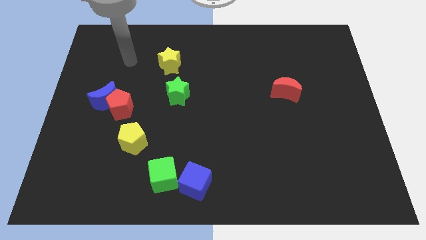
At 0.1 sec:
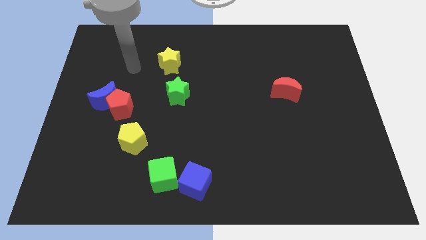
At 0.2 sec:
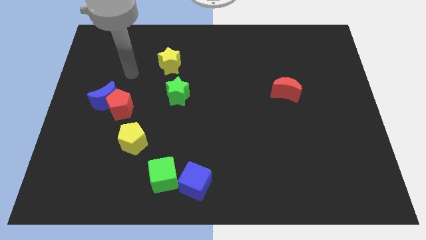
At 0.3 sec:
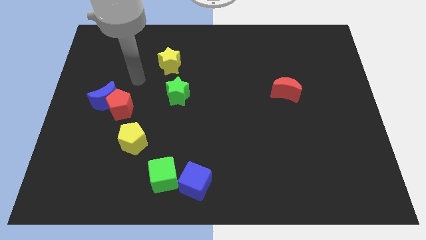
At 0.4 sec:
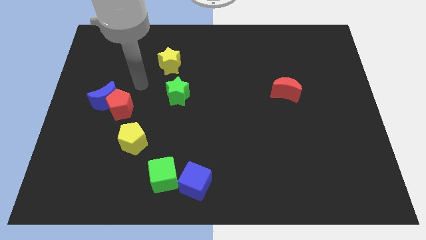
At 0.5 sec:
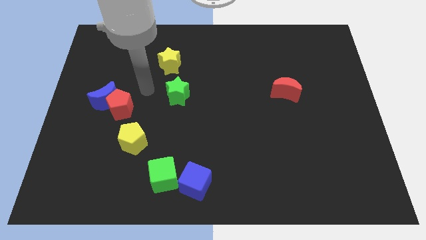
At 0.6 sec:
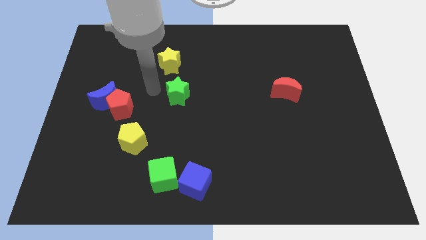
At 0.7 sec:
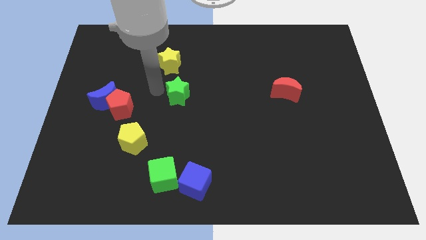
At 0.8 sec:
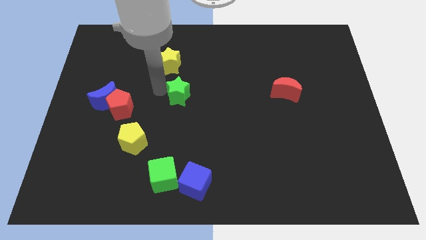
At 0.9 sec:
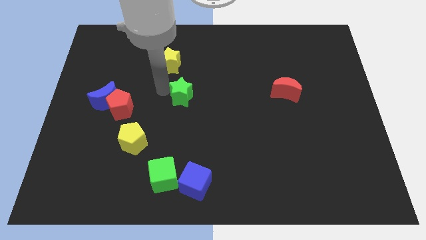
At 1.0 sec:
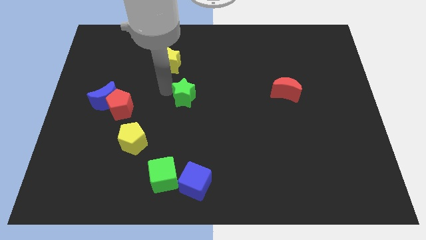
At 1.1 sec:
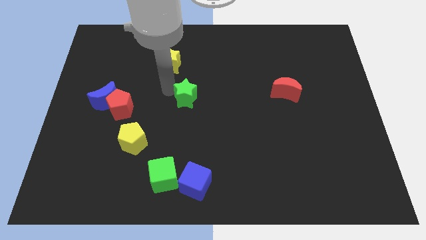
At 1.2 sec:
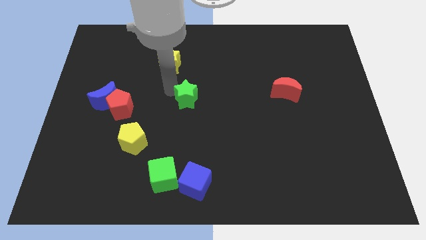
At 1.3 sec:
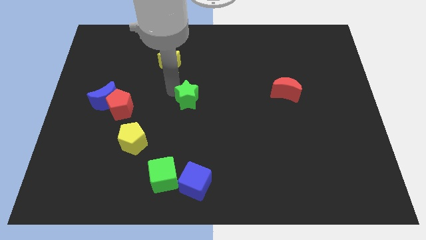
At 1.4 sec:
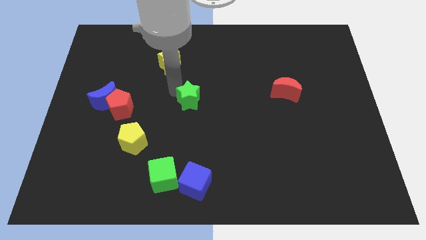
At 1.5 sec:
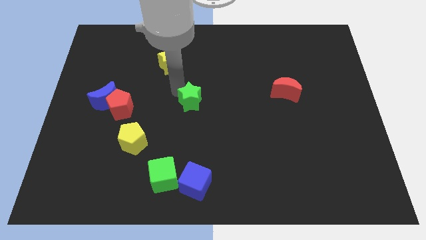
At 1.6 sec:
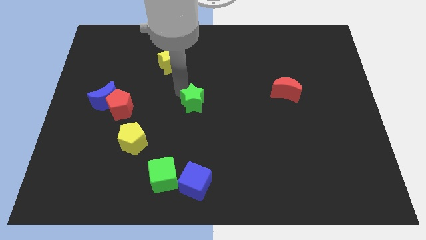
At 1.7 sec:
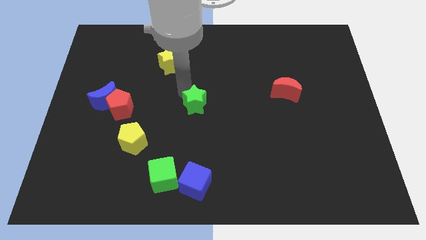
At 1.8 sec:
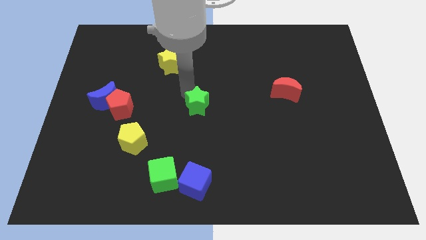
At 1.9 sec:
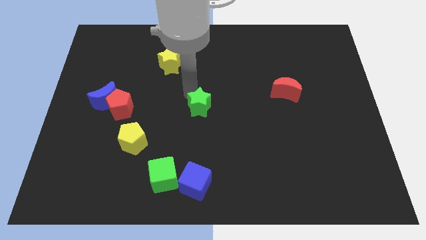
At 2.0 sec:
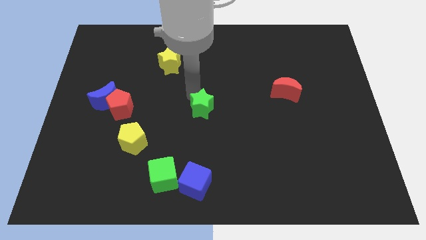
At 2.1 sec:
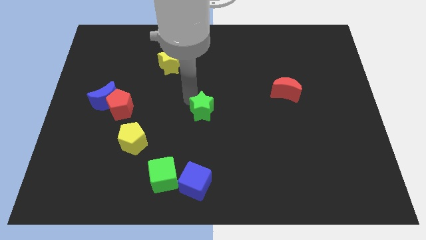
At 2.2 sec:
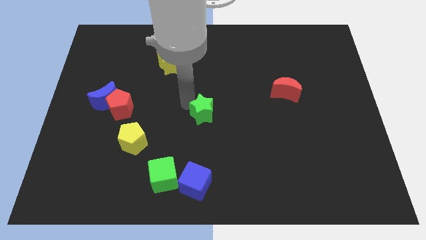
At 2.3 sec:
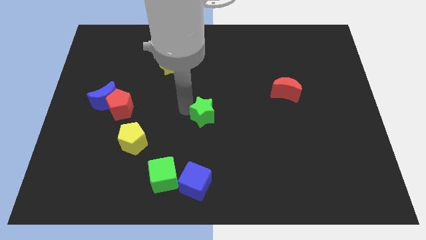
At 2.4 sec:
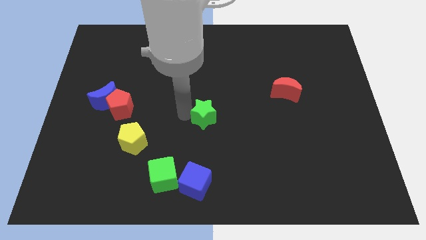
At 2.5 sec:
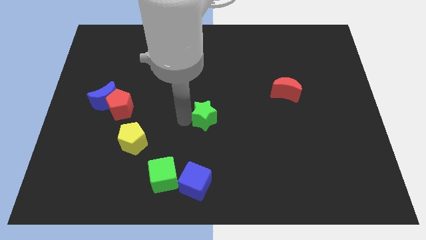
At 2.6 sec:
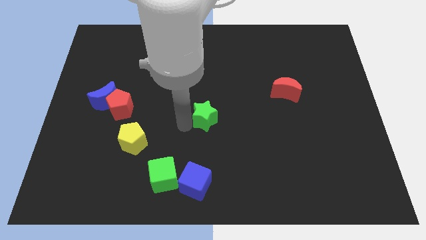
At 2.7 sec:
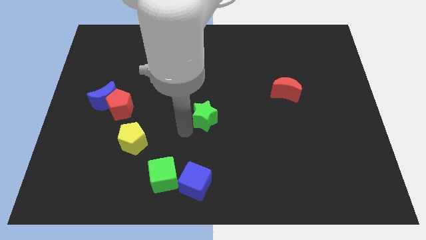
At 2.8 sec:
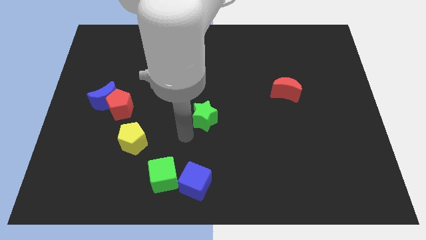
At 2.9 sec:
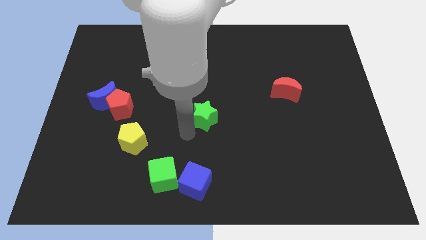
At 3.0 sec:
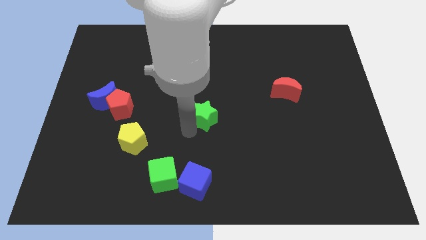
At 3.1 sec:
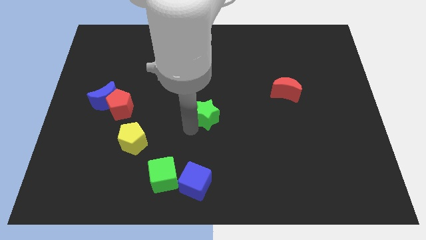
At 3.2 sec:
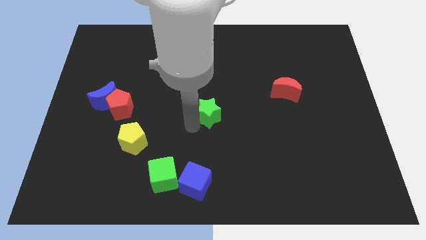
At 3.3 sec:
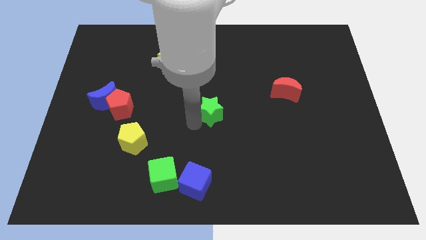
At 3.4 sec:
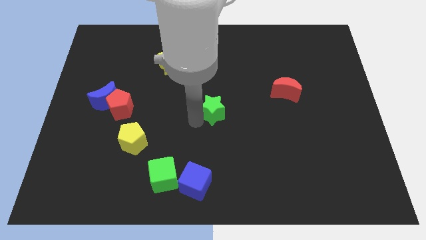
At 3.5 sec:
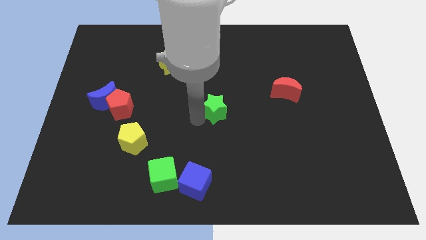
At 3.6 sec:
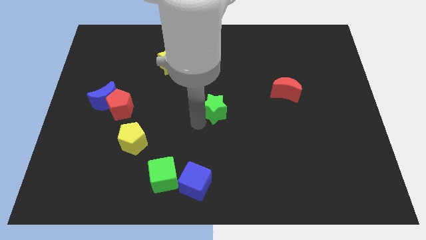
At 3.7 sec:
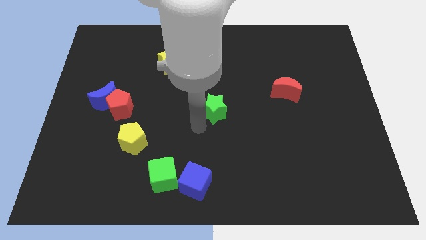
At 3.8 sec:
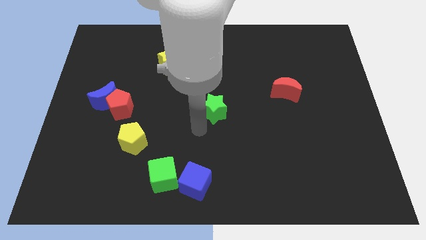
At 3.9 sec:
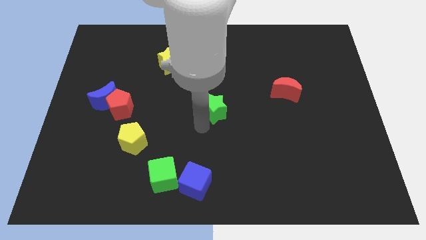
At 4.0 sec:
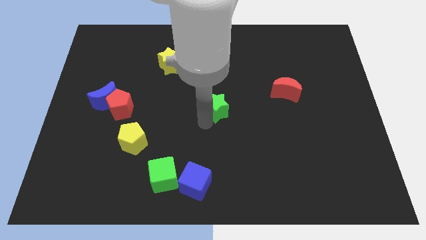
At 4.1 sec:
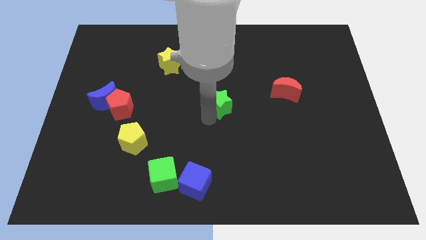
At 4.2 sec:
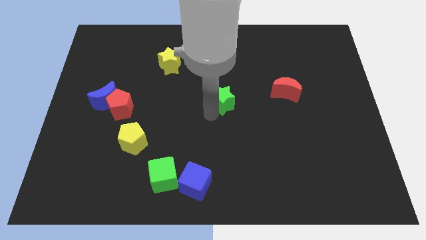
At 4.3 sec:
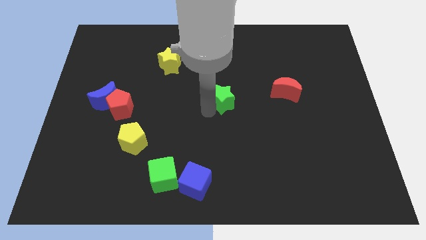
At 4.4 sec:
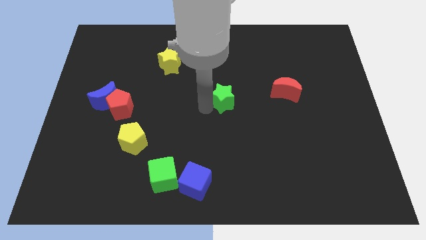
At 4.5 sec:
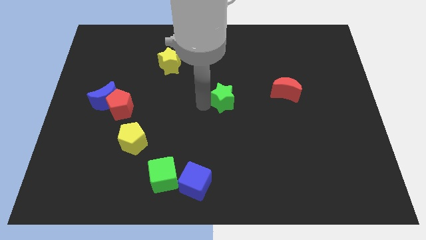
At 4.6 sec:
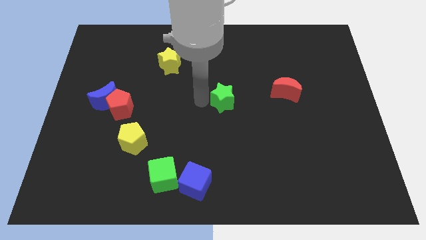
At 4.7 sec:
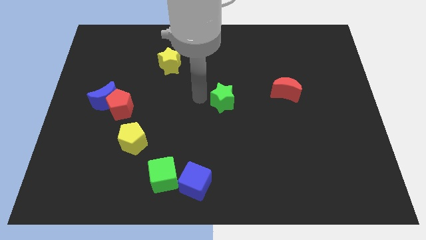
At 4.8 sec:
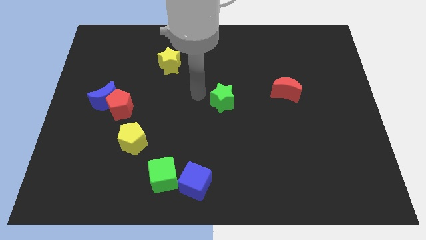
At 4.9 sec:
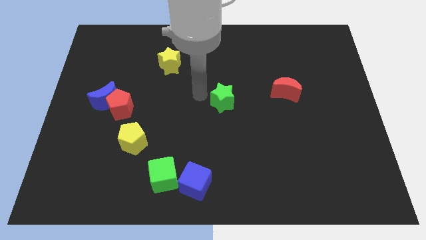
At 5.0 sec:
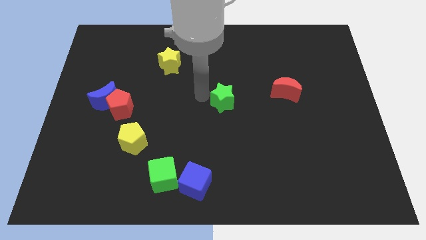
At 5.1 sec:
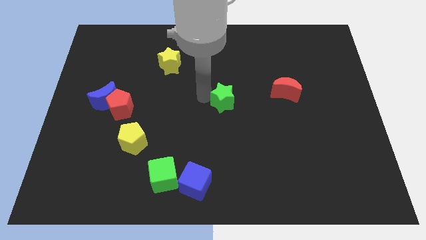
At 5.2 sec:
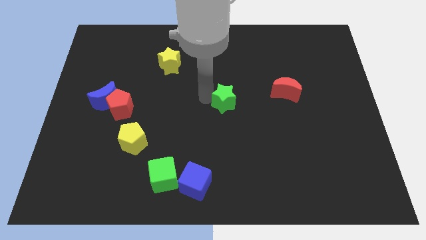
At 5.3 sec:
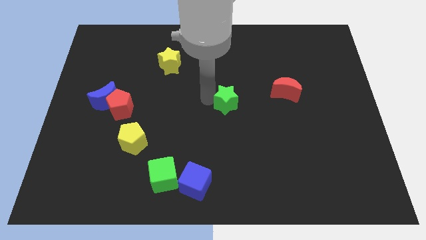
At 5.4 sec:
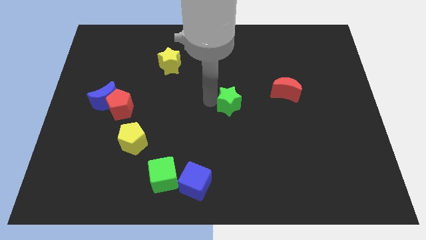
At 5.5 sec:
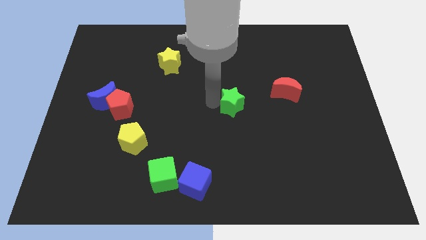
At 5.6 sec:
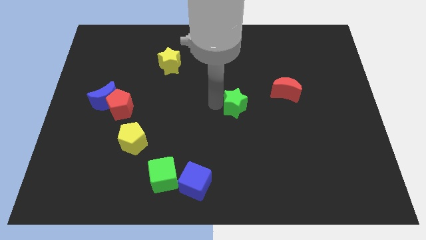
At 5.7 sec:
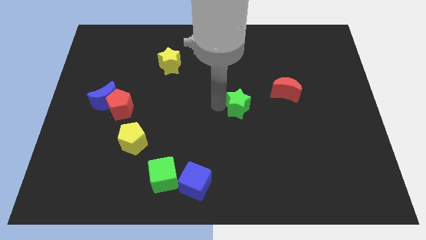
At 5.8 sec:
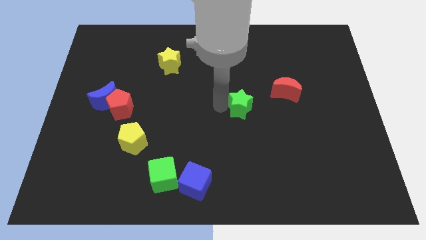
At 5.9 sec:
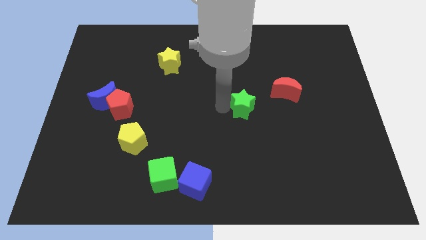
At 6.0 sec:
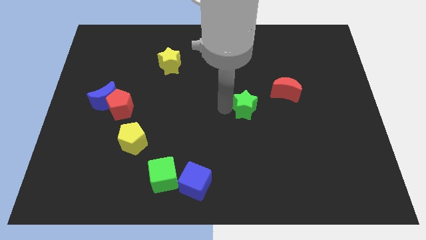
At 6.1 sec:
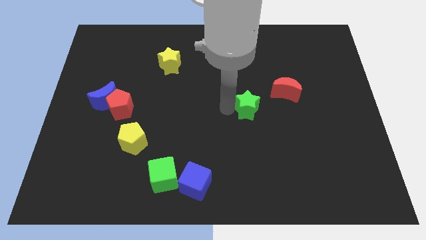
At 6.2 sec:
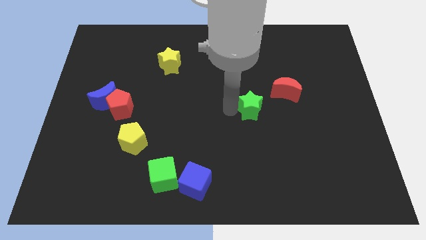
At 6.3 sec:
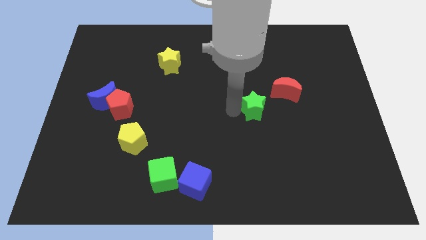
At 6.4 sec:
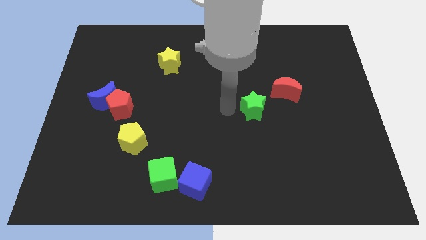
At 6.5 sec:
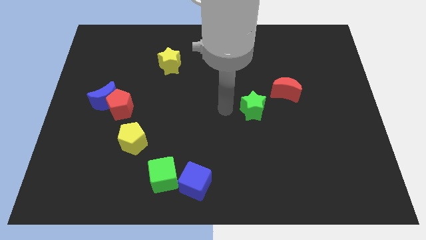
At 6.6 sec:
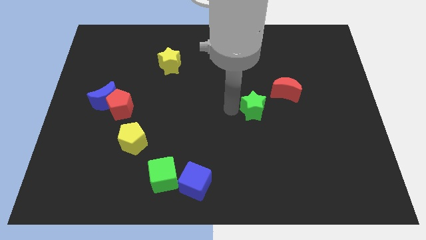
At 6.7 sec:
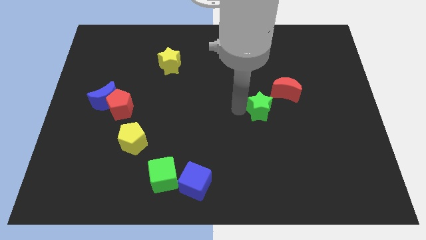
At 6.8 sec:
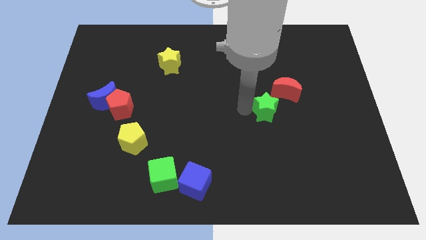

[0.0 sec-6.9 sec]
slide the green star right

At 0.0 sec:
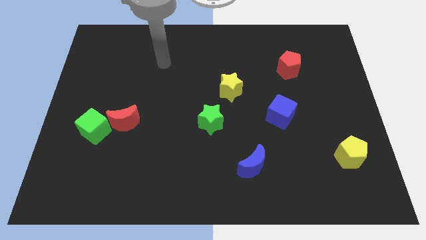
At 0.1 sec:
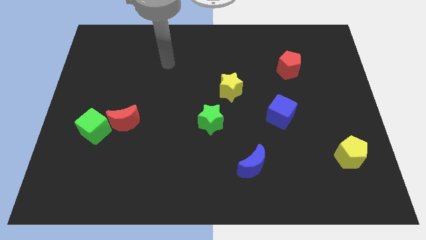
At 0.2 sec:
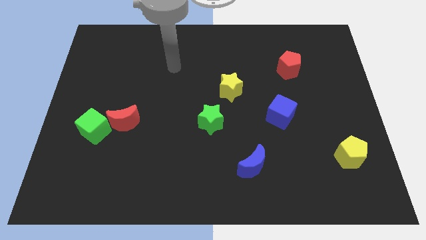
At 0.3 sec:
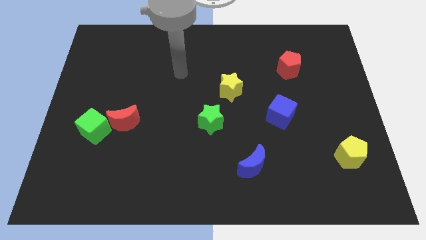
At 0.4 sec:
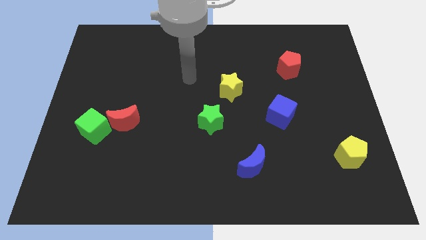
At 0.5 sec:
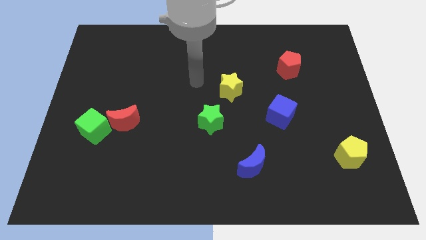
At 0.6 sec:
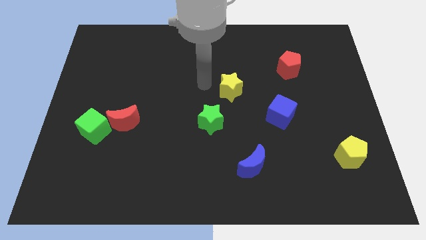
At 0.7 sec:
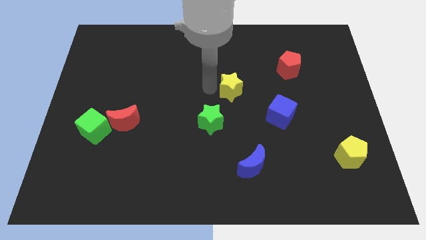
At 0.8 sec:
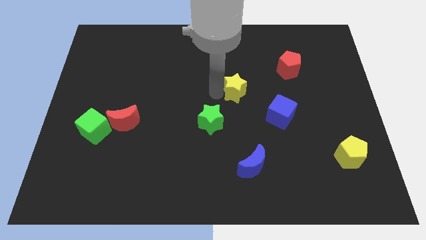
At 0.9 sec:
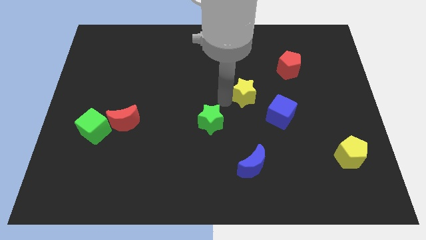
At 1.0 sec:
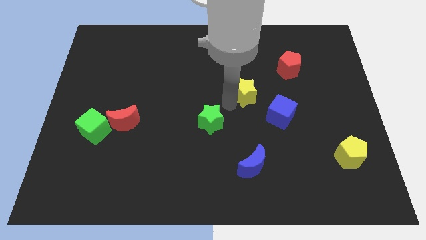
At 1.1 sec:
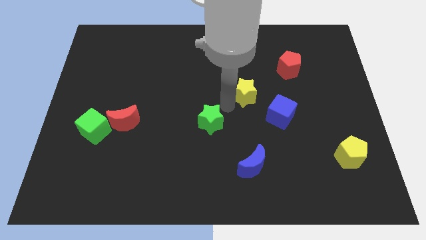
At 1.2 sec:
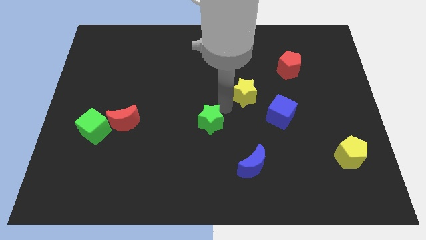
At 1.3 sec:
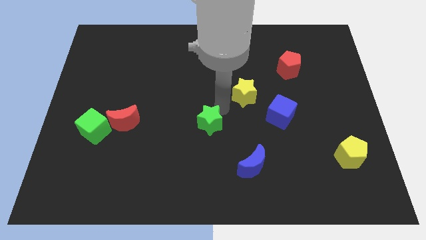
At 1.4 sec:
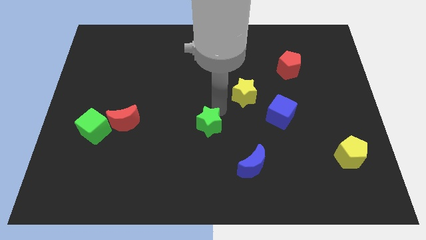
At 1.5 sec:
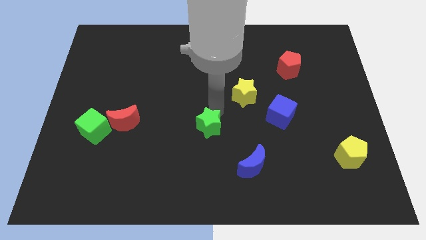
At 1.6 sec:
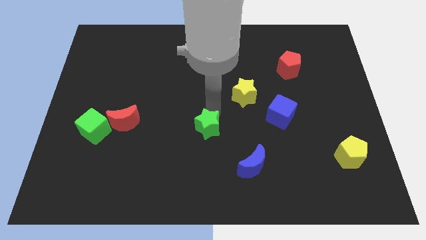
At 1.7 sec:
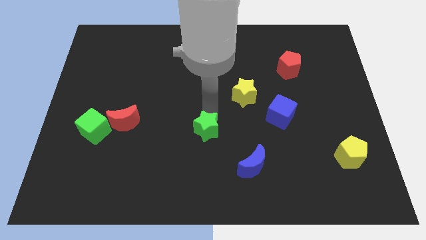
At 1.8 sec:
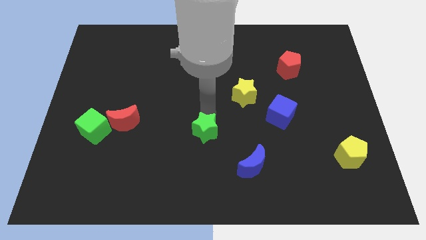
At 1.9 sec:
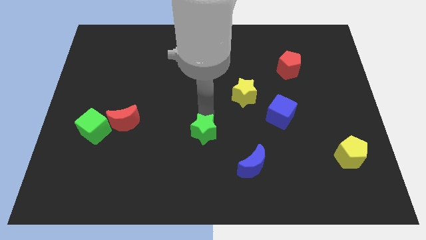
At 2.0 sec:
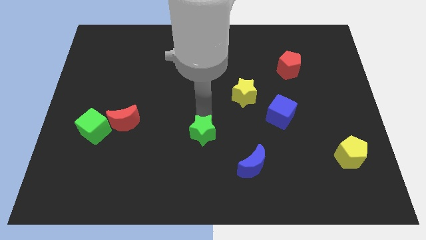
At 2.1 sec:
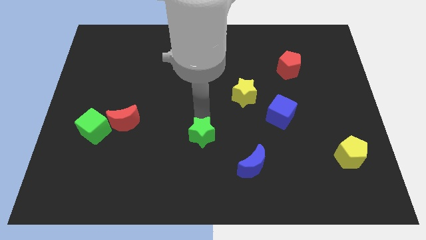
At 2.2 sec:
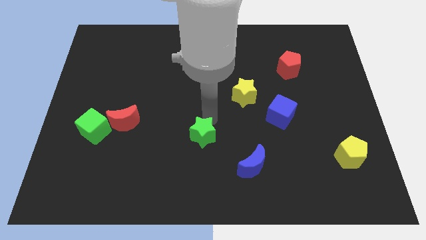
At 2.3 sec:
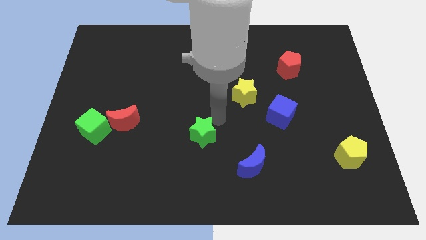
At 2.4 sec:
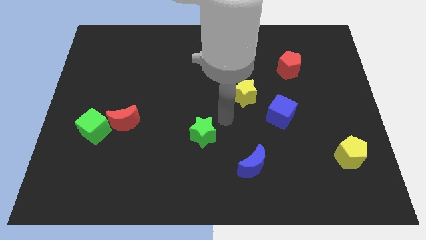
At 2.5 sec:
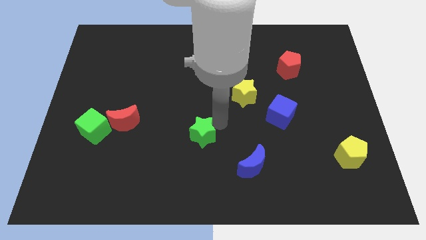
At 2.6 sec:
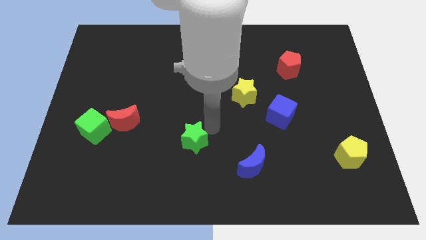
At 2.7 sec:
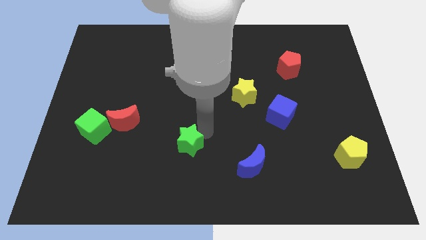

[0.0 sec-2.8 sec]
slide the green star down and left diagonally a little bit
